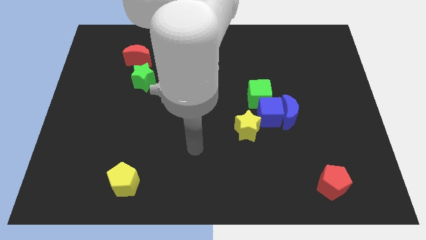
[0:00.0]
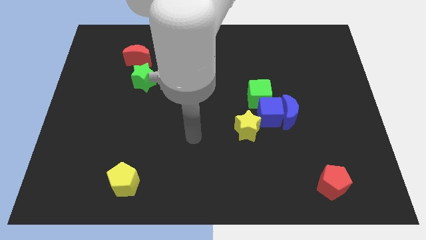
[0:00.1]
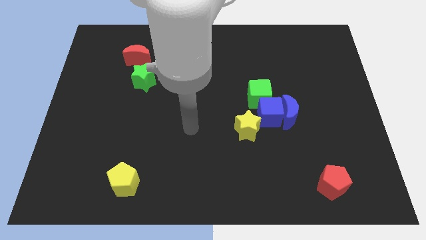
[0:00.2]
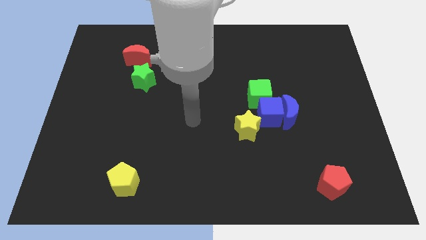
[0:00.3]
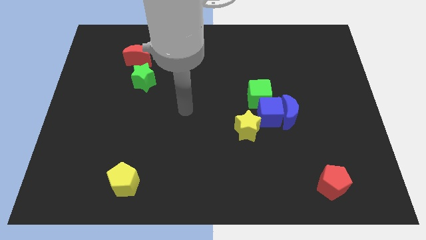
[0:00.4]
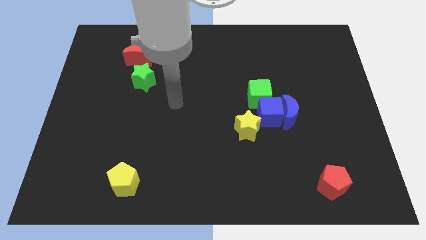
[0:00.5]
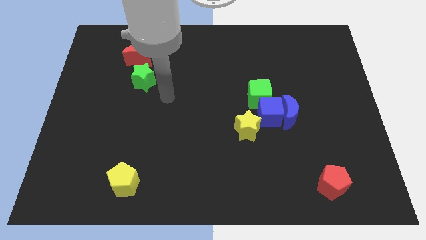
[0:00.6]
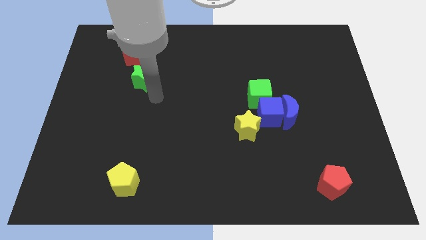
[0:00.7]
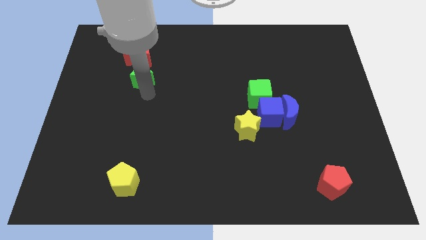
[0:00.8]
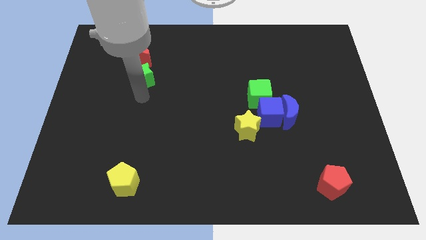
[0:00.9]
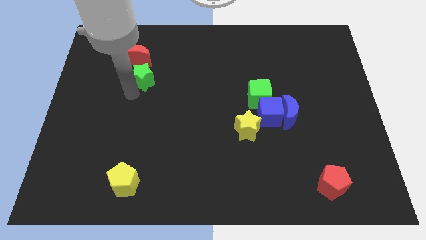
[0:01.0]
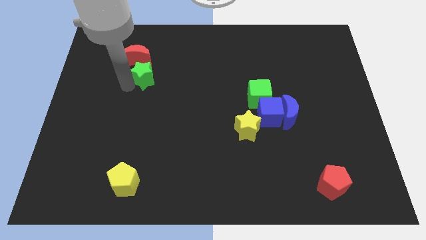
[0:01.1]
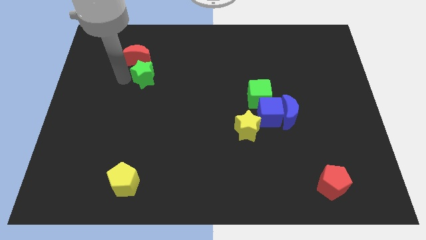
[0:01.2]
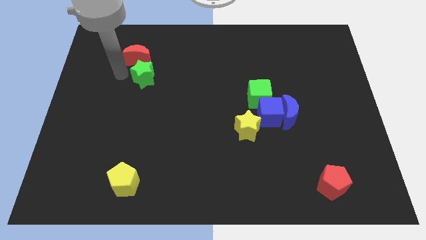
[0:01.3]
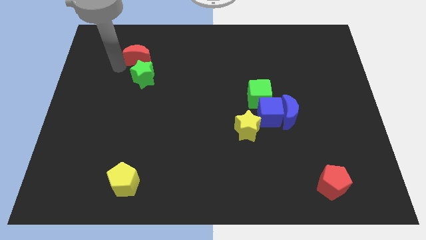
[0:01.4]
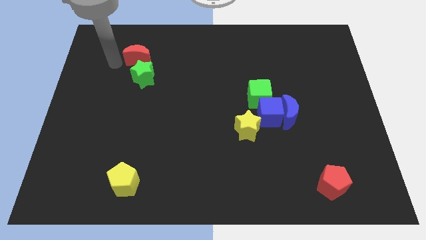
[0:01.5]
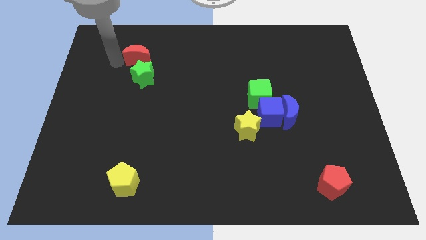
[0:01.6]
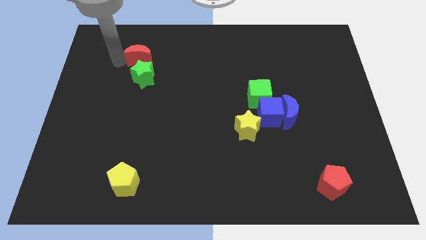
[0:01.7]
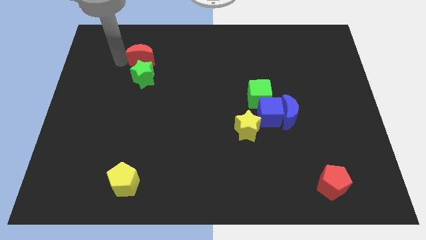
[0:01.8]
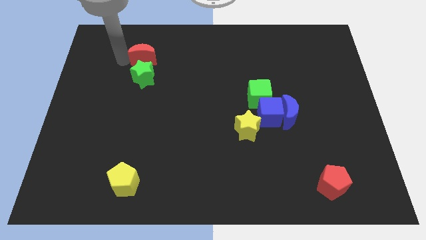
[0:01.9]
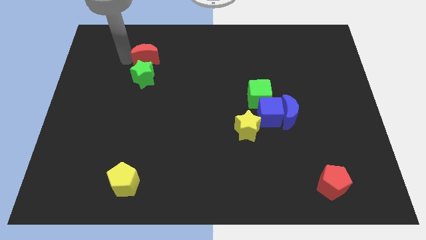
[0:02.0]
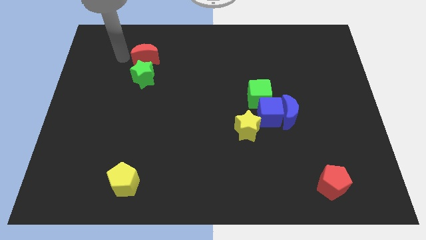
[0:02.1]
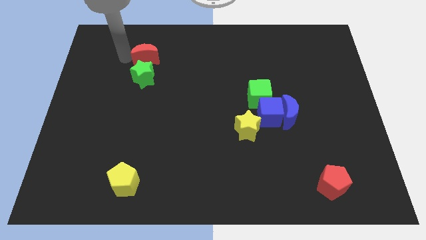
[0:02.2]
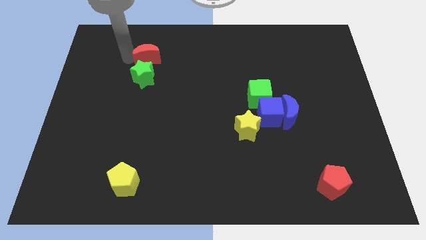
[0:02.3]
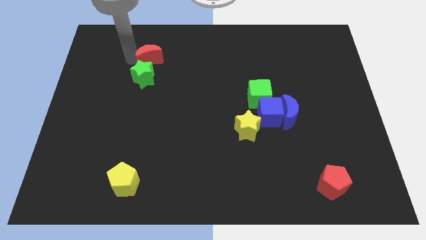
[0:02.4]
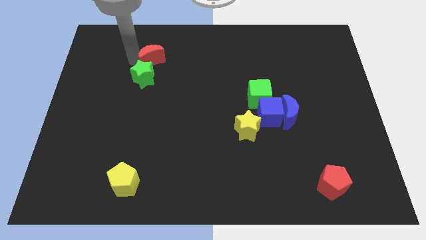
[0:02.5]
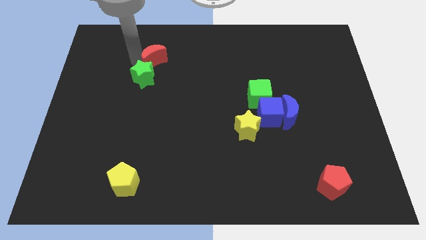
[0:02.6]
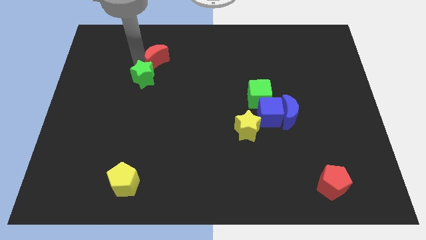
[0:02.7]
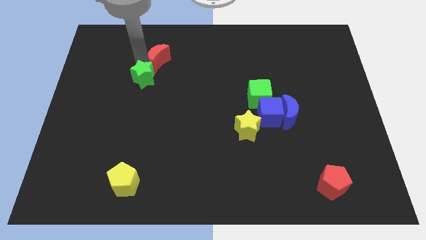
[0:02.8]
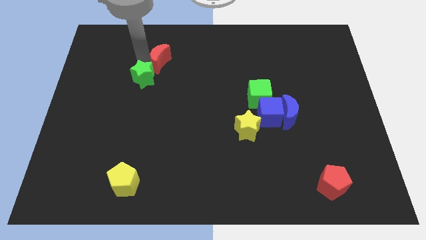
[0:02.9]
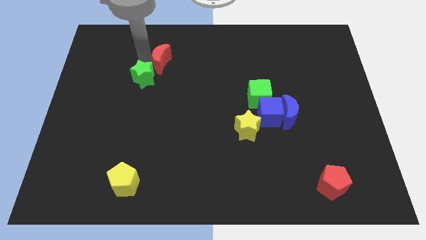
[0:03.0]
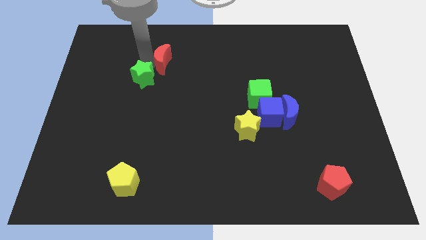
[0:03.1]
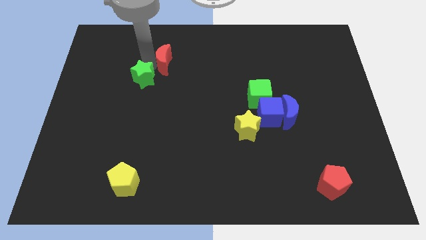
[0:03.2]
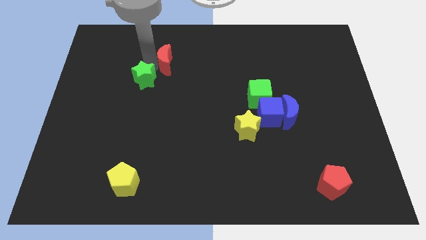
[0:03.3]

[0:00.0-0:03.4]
slide the red moon somewhat to the right

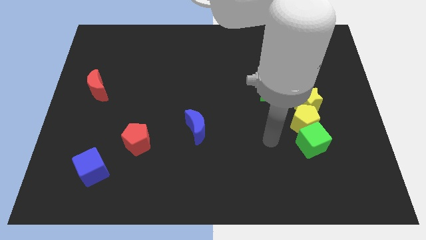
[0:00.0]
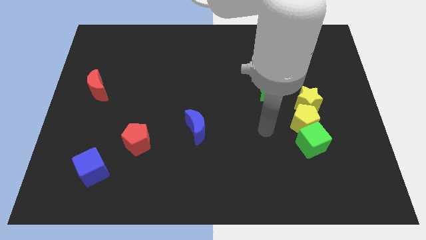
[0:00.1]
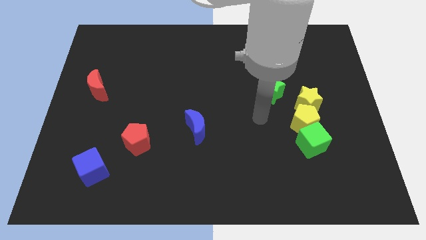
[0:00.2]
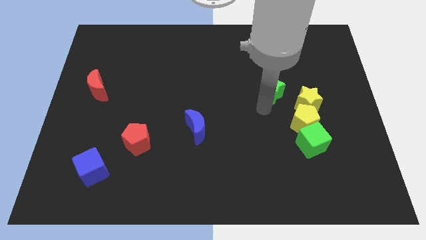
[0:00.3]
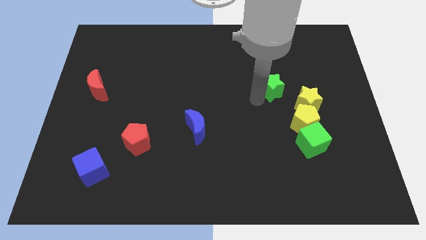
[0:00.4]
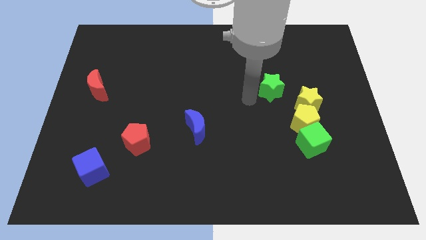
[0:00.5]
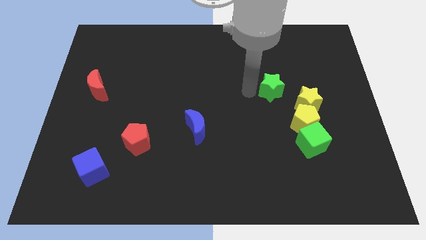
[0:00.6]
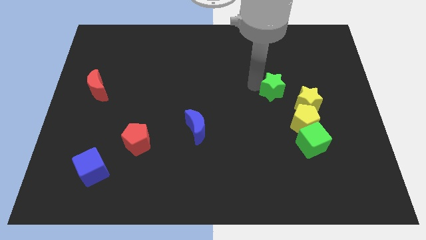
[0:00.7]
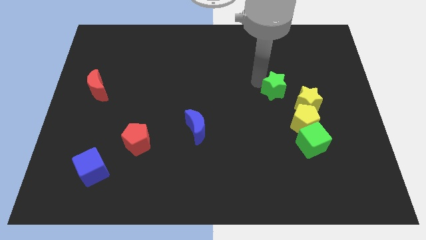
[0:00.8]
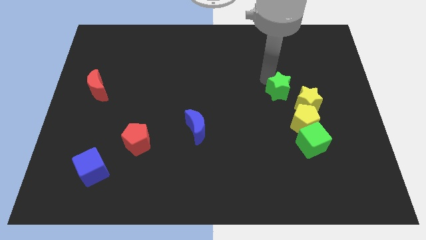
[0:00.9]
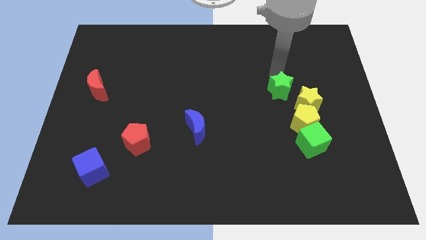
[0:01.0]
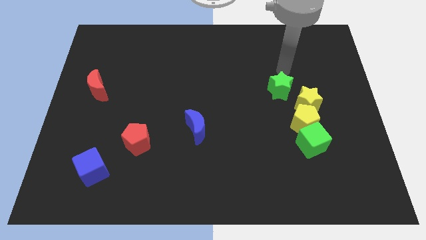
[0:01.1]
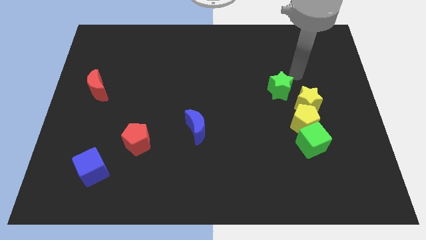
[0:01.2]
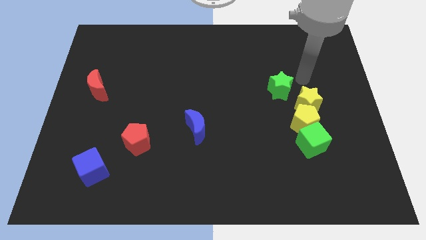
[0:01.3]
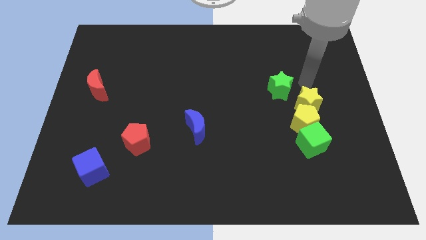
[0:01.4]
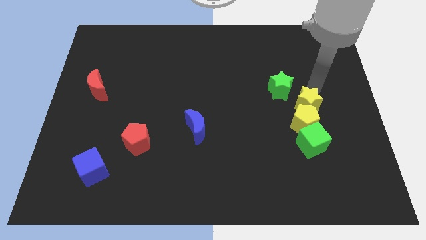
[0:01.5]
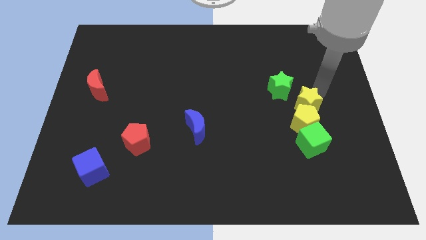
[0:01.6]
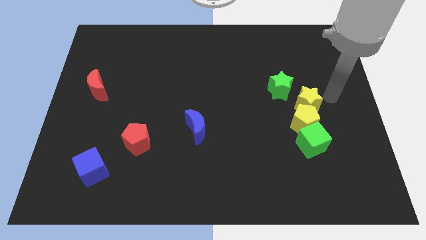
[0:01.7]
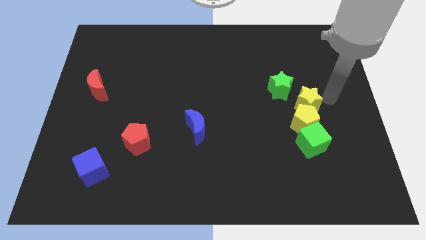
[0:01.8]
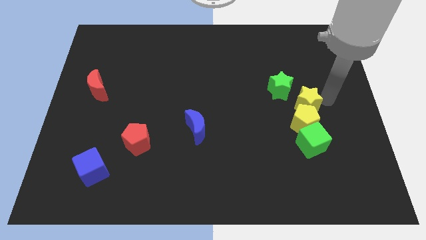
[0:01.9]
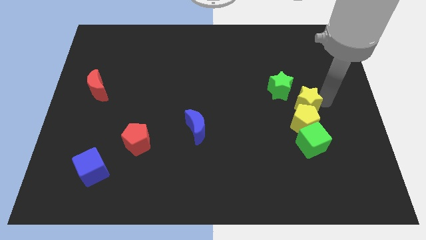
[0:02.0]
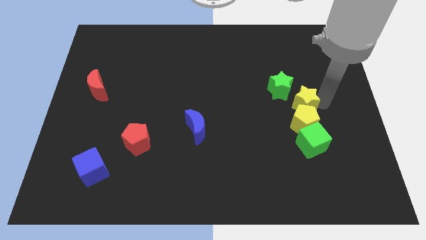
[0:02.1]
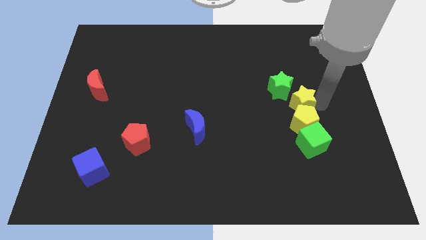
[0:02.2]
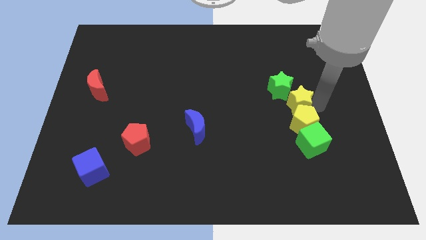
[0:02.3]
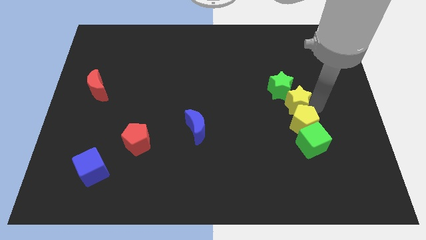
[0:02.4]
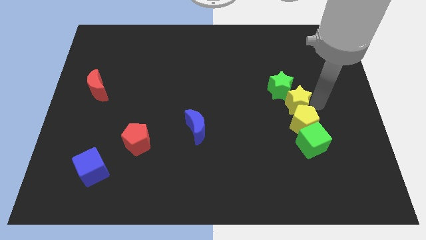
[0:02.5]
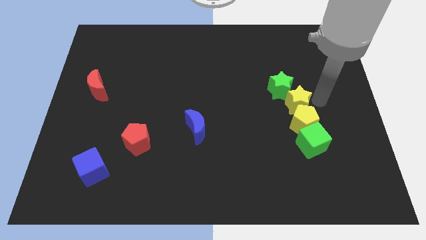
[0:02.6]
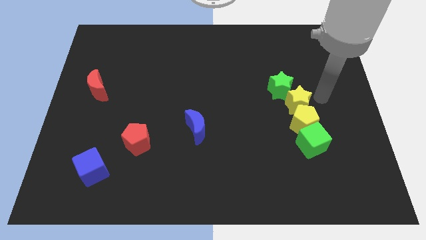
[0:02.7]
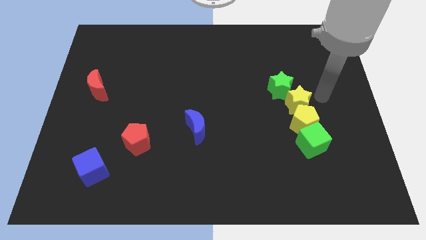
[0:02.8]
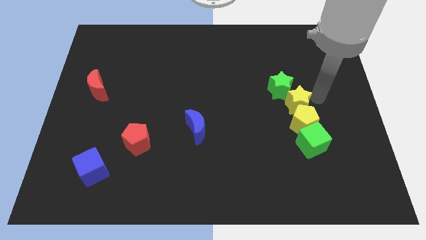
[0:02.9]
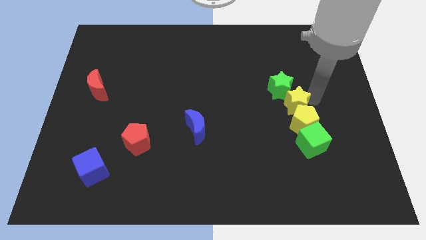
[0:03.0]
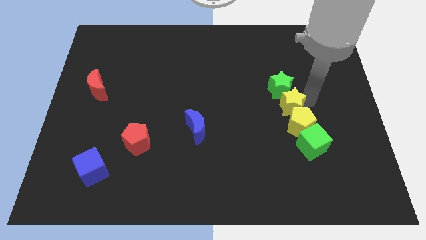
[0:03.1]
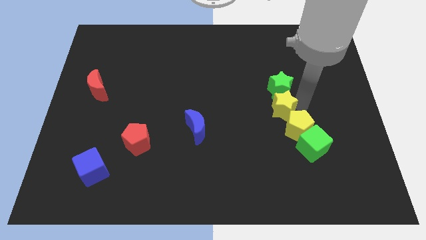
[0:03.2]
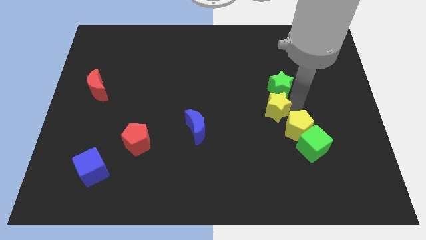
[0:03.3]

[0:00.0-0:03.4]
slide the yellow star to the left somewhat

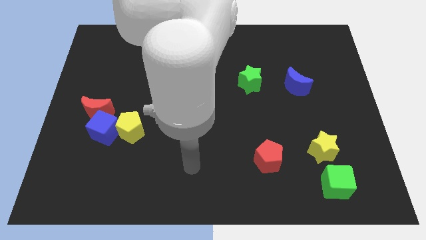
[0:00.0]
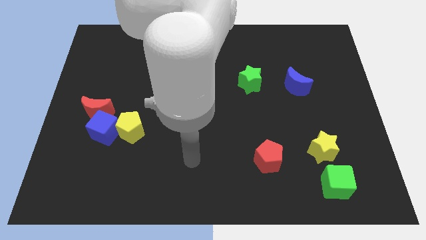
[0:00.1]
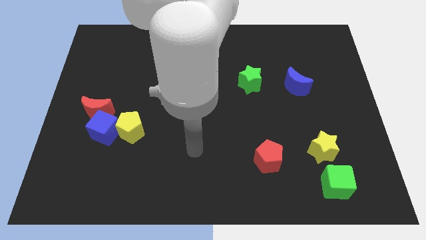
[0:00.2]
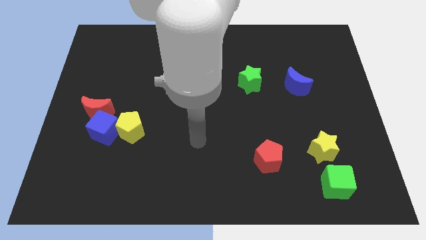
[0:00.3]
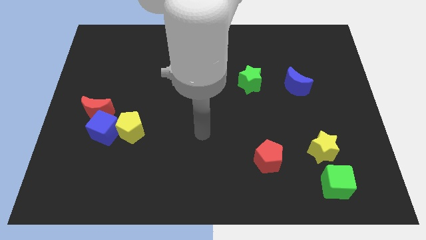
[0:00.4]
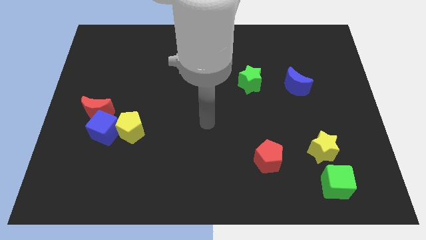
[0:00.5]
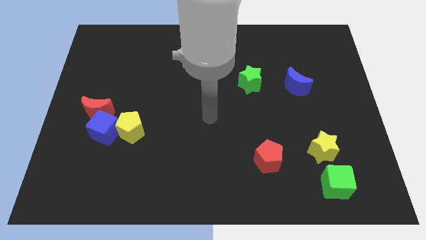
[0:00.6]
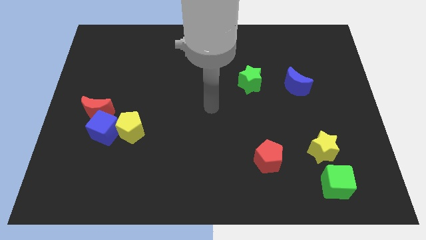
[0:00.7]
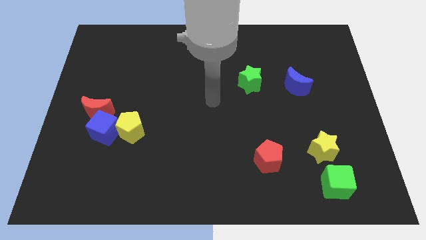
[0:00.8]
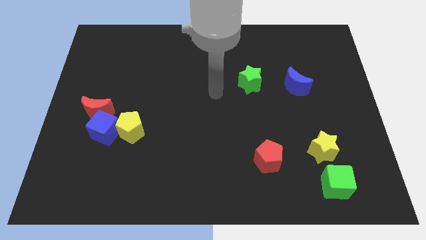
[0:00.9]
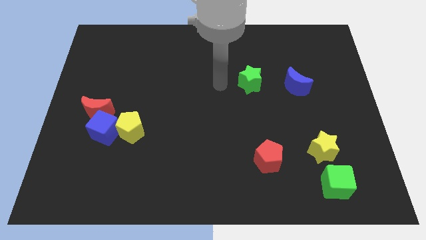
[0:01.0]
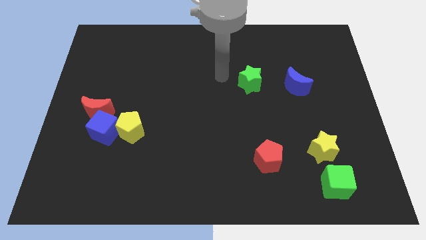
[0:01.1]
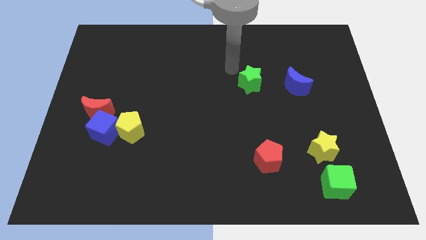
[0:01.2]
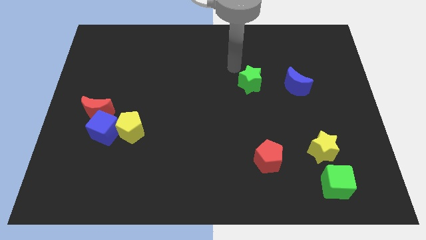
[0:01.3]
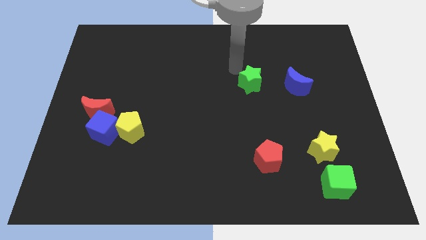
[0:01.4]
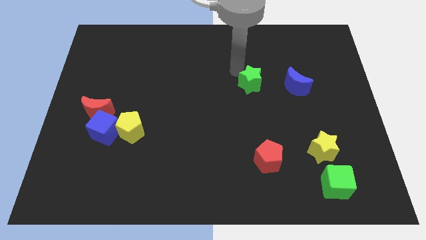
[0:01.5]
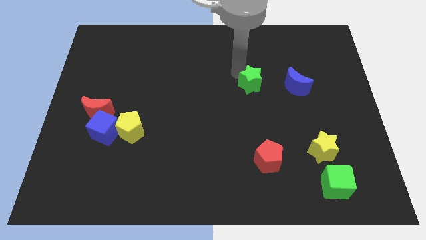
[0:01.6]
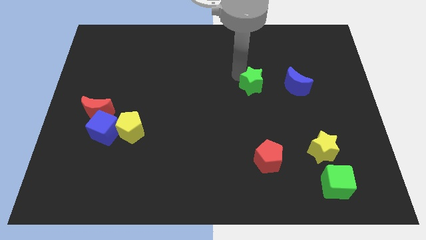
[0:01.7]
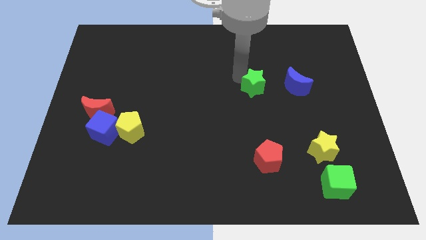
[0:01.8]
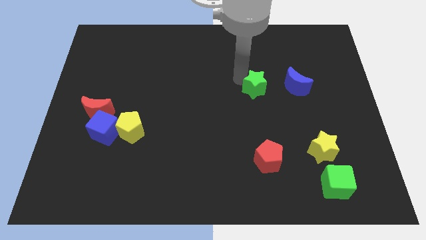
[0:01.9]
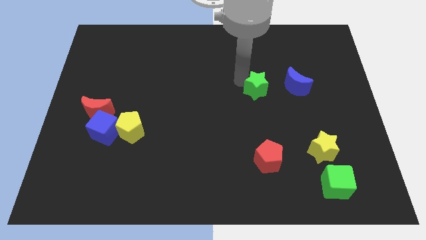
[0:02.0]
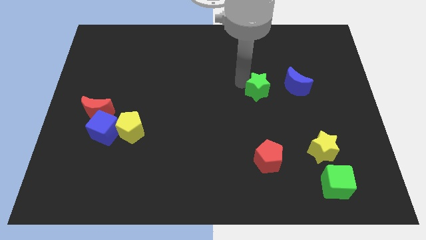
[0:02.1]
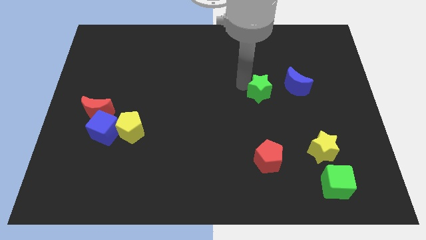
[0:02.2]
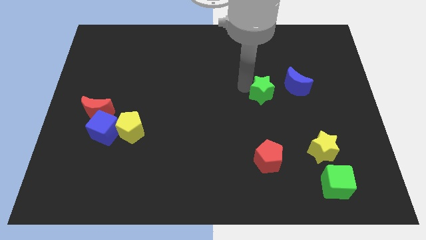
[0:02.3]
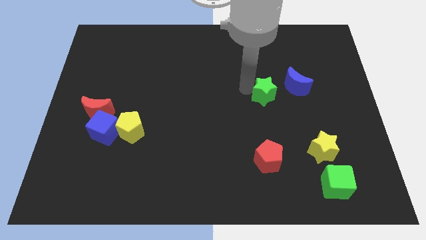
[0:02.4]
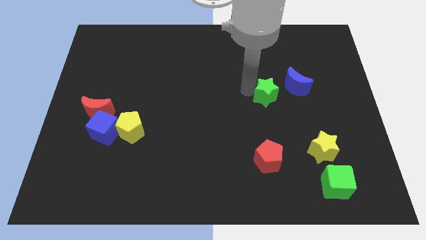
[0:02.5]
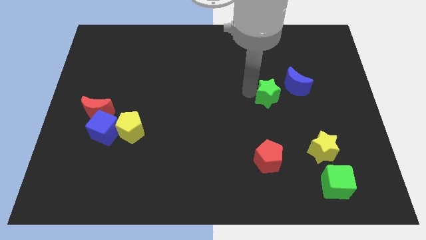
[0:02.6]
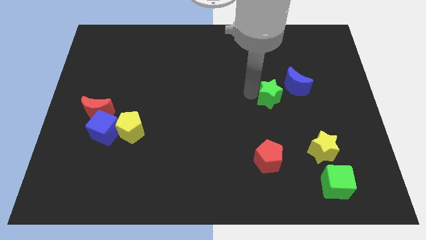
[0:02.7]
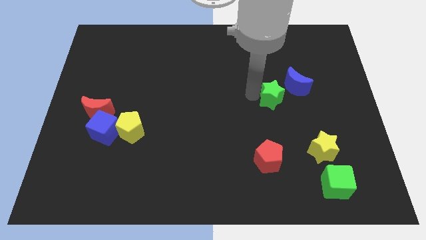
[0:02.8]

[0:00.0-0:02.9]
move the green star down and right somewhat
